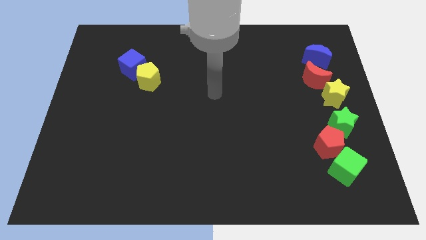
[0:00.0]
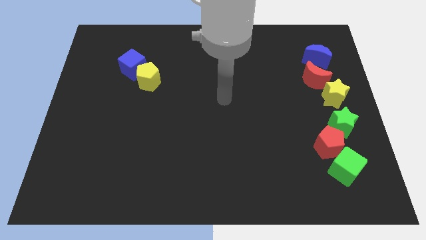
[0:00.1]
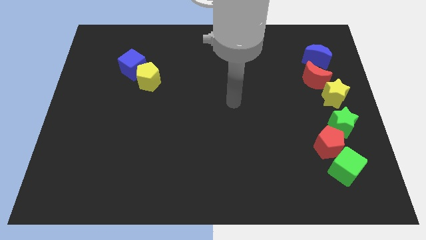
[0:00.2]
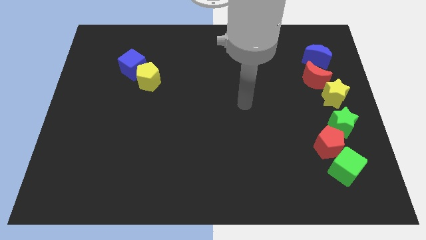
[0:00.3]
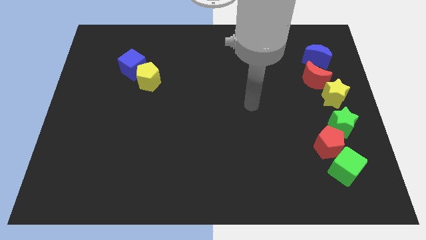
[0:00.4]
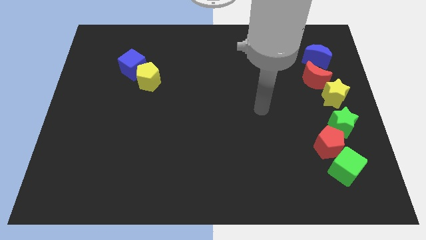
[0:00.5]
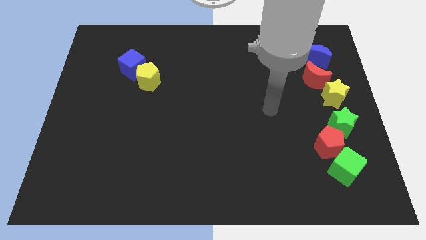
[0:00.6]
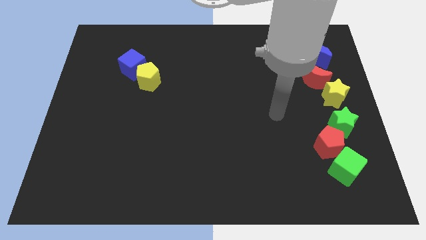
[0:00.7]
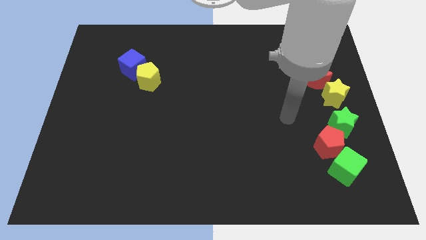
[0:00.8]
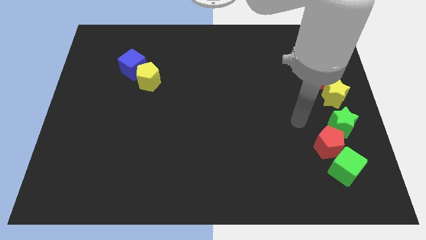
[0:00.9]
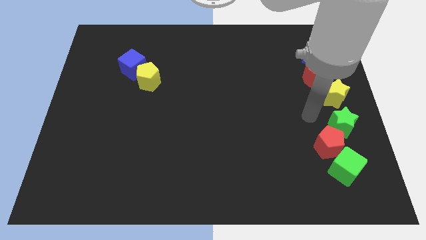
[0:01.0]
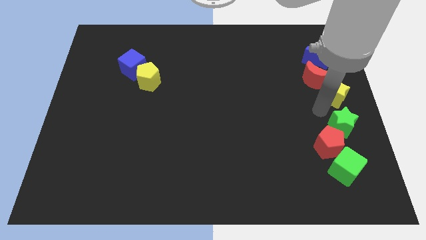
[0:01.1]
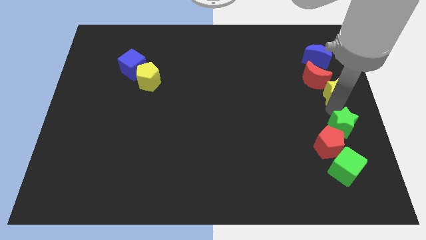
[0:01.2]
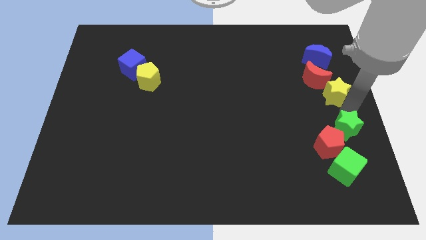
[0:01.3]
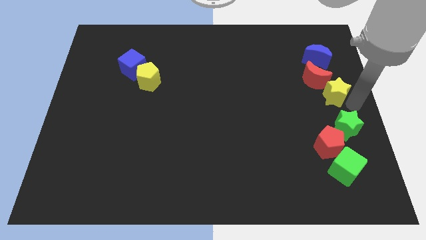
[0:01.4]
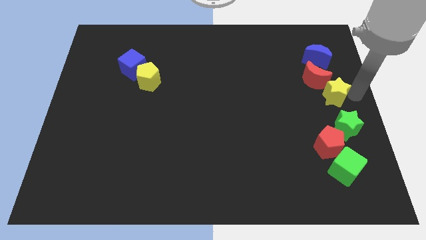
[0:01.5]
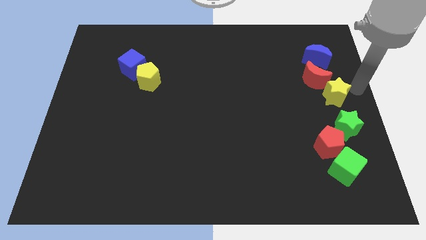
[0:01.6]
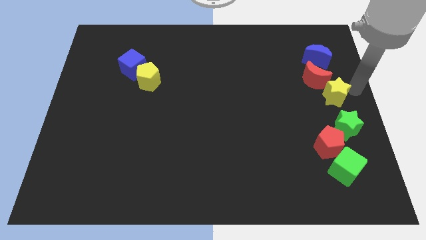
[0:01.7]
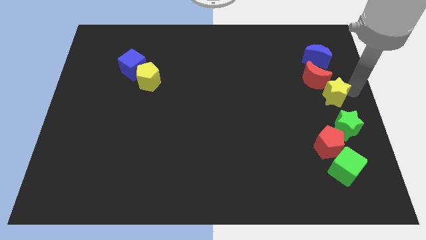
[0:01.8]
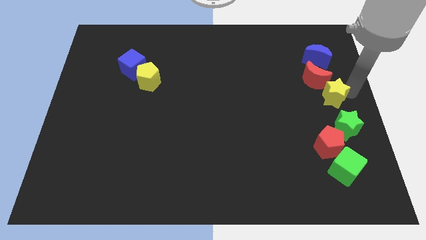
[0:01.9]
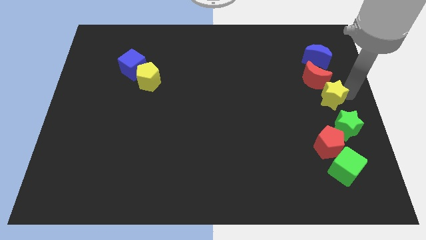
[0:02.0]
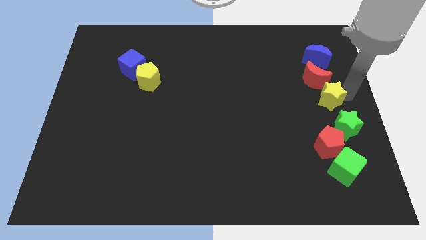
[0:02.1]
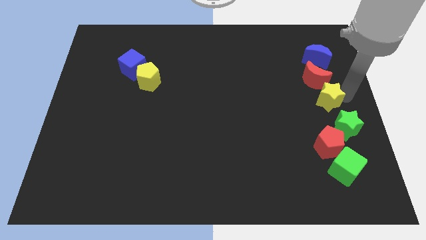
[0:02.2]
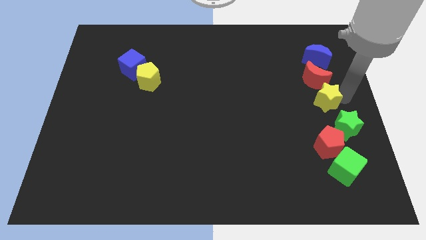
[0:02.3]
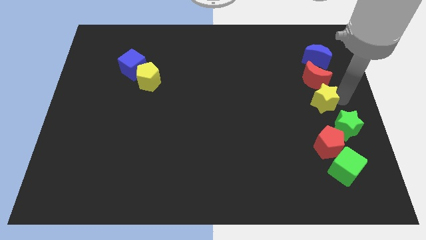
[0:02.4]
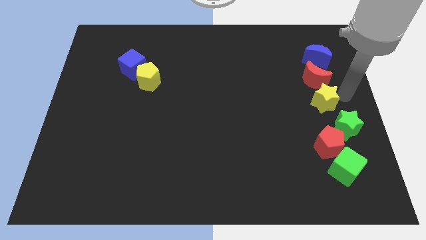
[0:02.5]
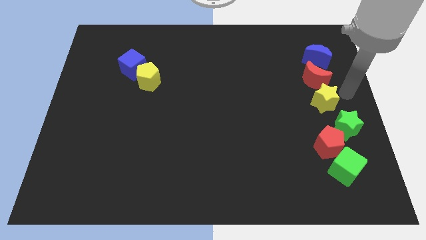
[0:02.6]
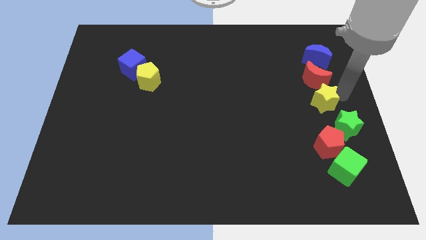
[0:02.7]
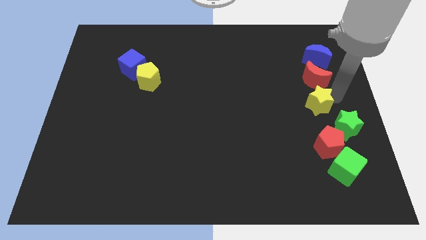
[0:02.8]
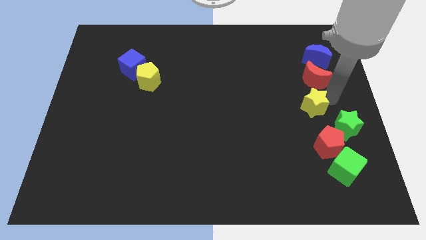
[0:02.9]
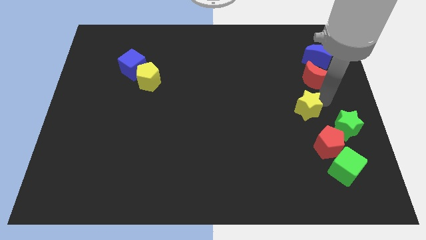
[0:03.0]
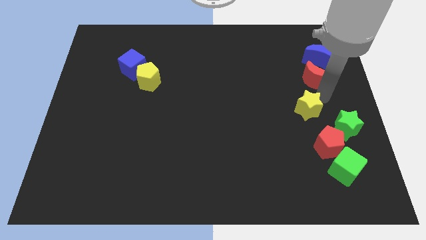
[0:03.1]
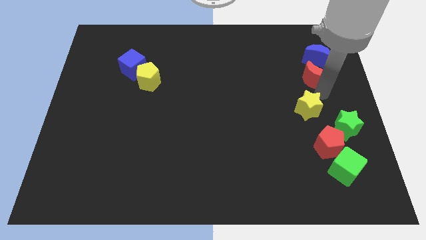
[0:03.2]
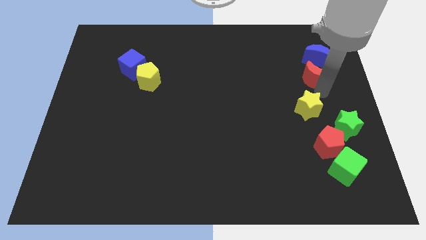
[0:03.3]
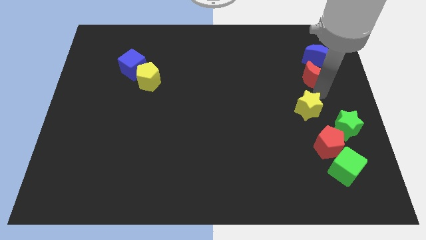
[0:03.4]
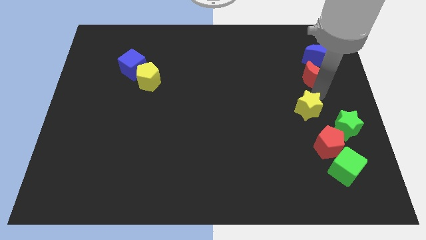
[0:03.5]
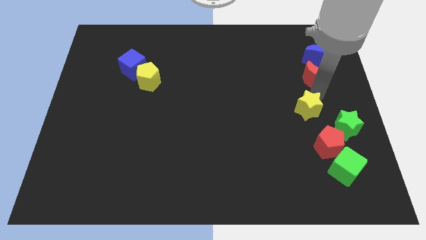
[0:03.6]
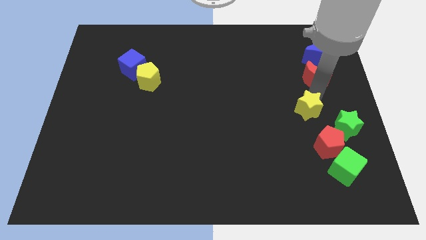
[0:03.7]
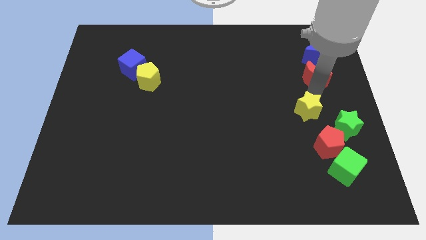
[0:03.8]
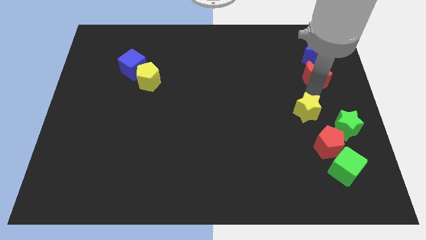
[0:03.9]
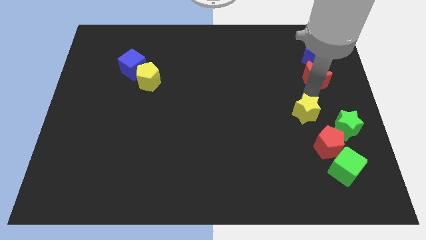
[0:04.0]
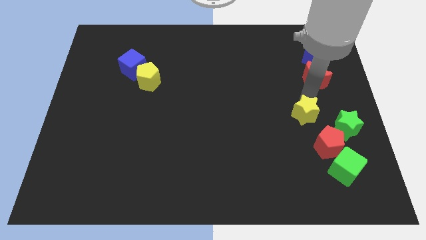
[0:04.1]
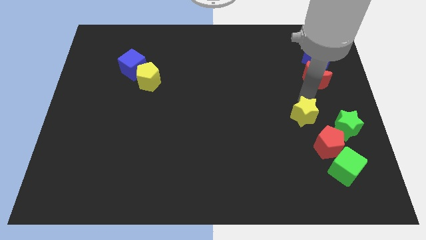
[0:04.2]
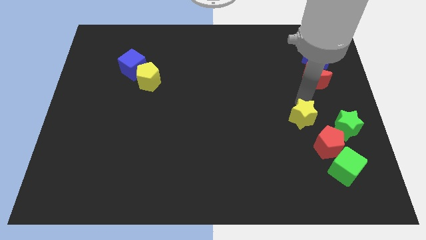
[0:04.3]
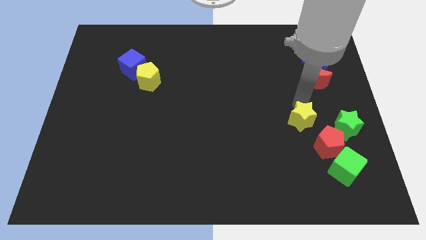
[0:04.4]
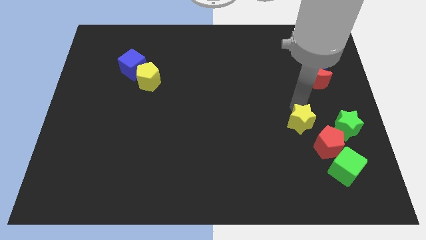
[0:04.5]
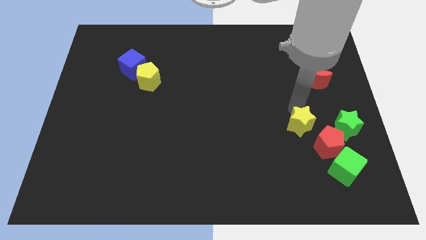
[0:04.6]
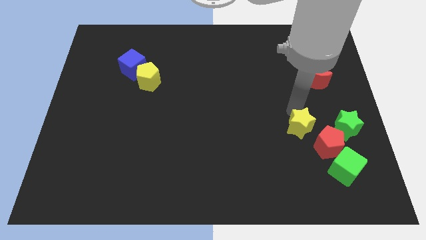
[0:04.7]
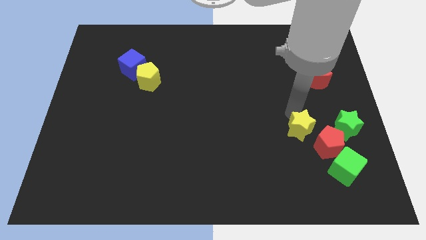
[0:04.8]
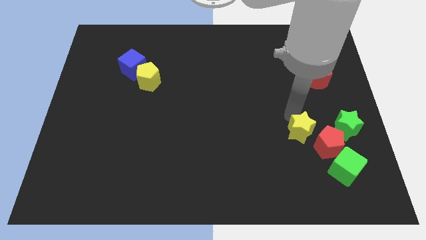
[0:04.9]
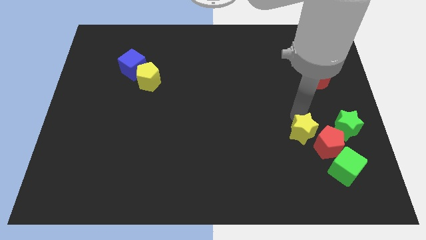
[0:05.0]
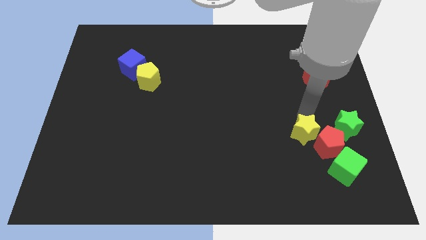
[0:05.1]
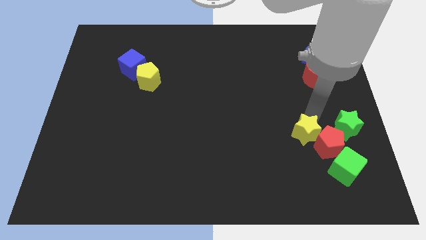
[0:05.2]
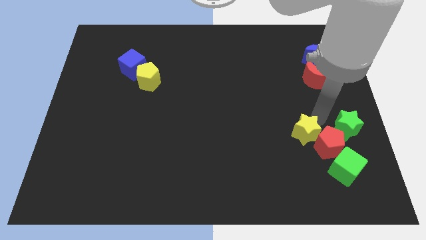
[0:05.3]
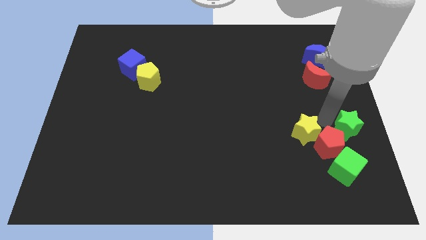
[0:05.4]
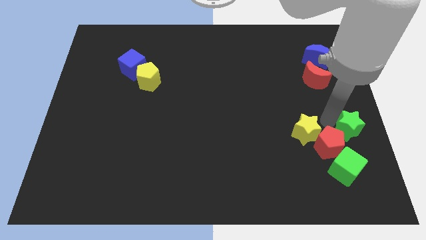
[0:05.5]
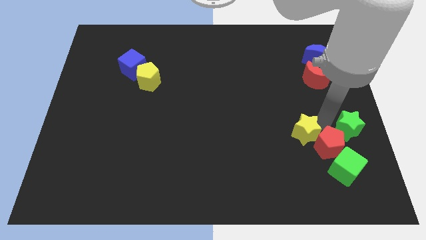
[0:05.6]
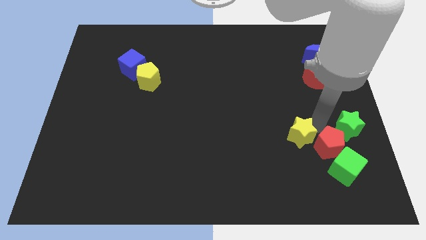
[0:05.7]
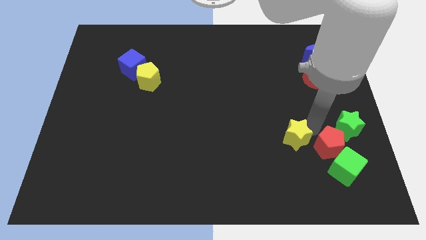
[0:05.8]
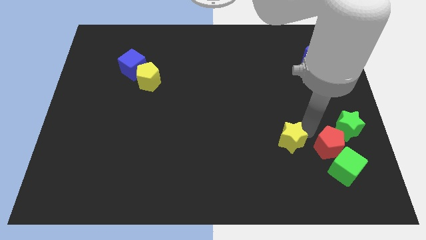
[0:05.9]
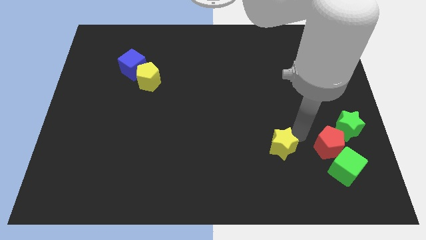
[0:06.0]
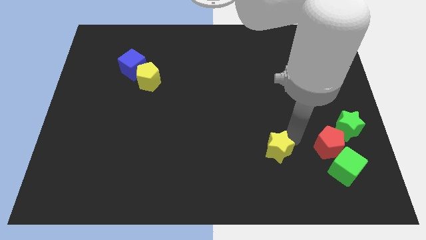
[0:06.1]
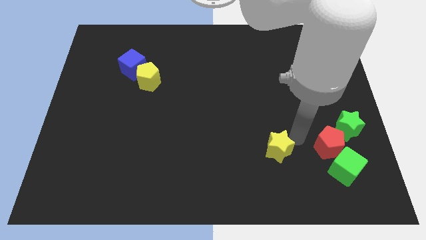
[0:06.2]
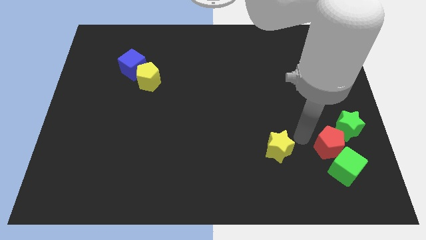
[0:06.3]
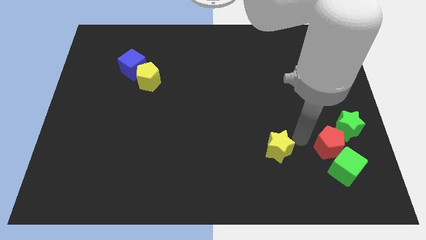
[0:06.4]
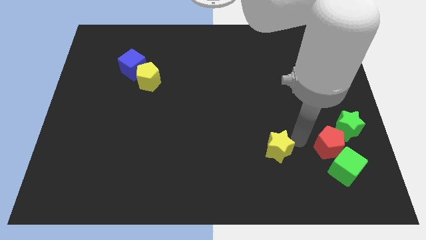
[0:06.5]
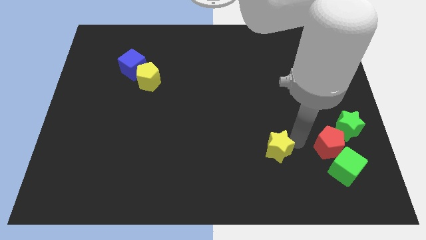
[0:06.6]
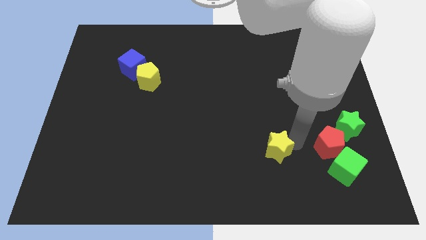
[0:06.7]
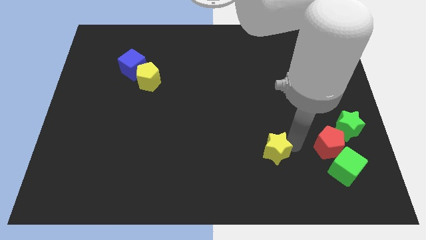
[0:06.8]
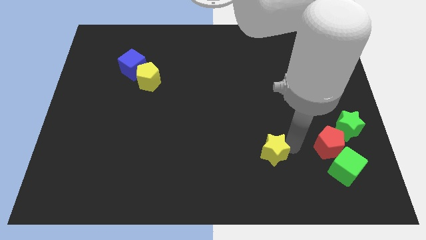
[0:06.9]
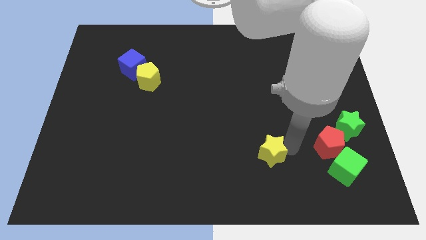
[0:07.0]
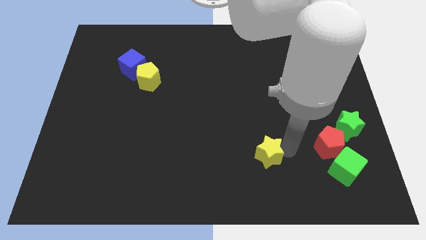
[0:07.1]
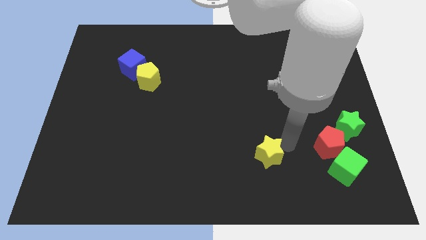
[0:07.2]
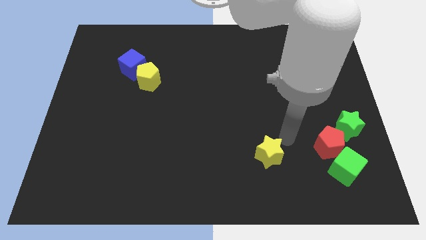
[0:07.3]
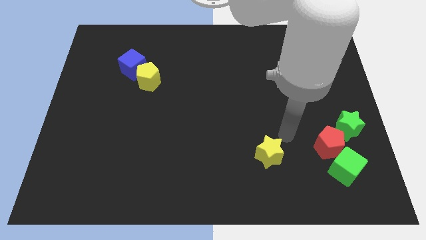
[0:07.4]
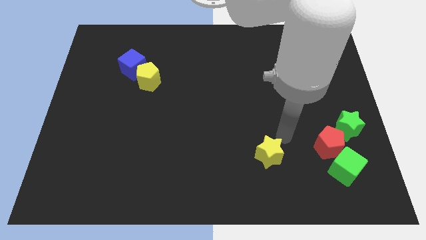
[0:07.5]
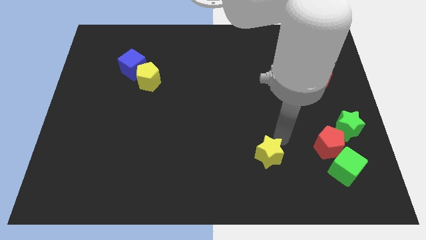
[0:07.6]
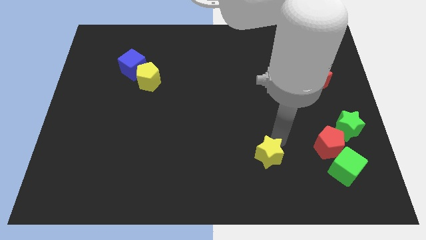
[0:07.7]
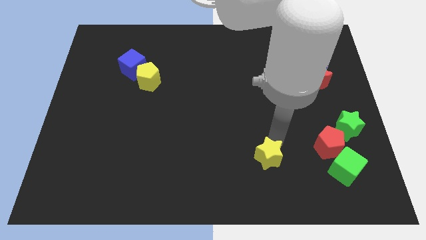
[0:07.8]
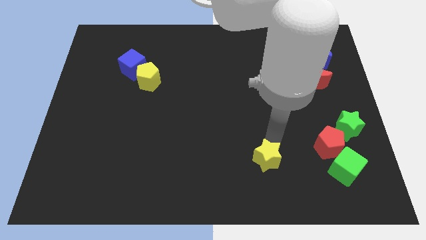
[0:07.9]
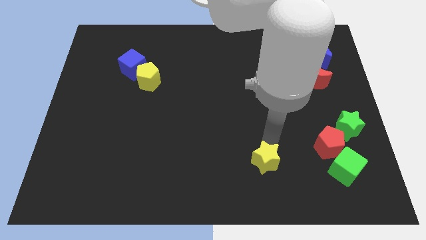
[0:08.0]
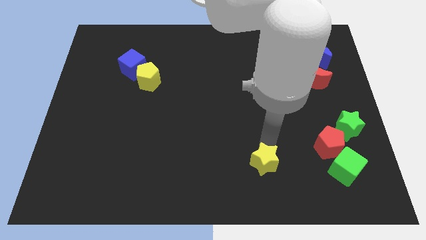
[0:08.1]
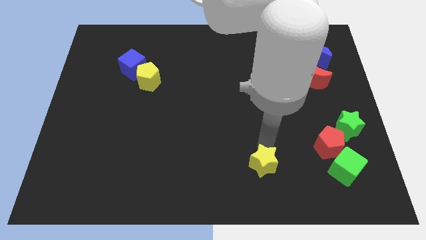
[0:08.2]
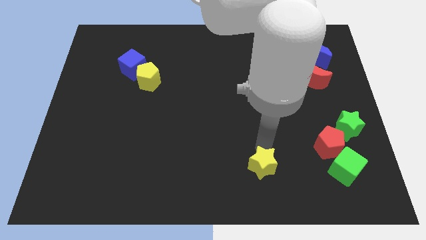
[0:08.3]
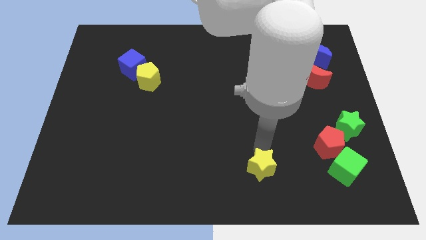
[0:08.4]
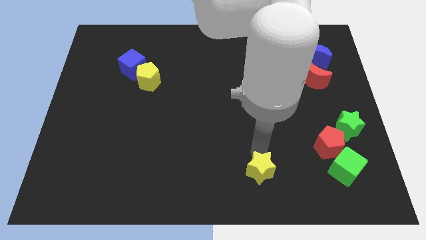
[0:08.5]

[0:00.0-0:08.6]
move the yellow star to the bottom side
